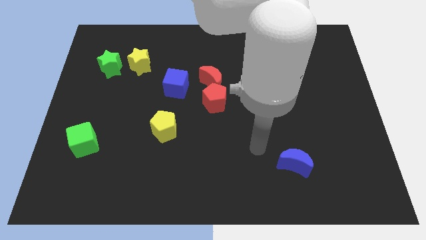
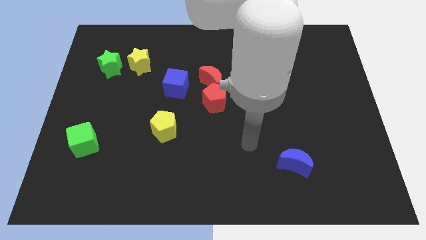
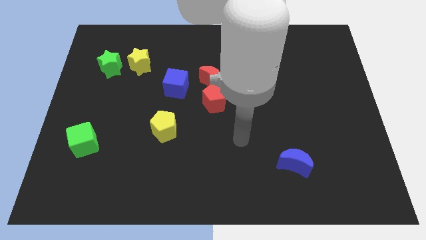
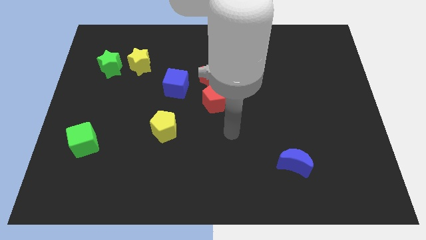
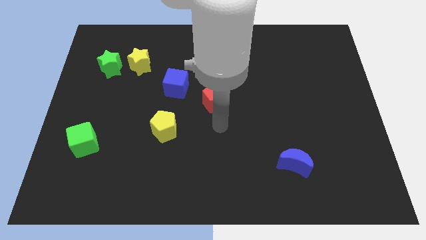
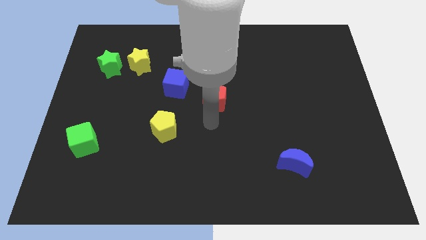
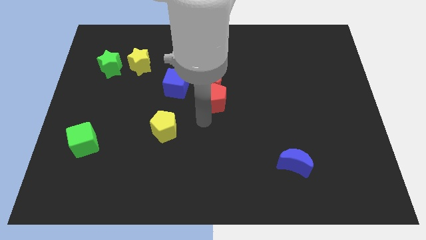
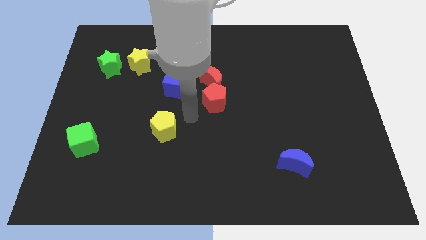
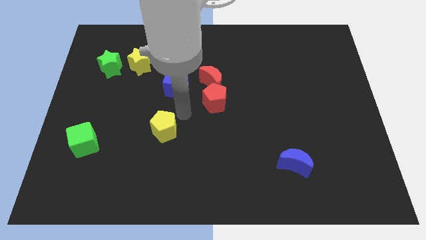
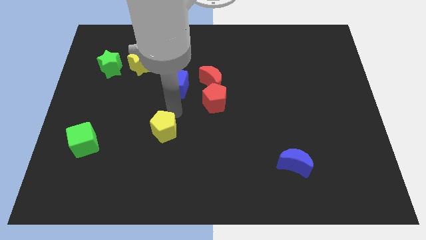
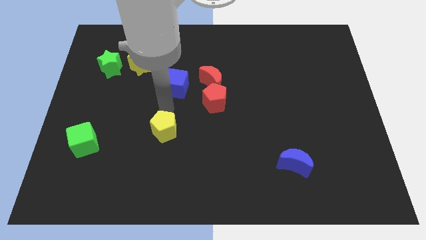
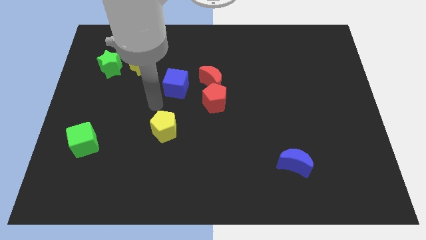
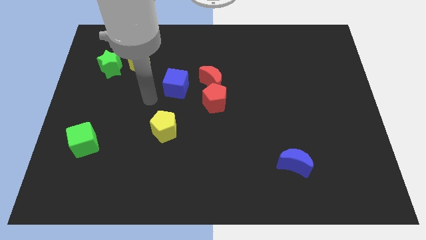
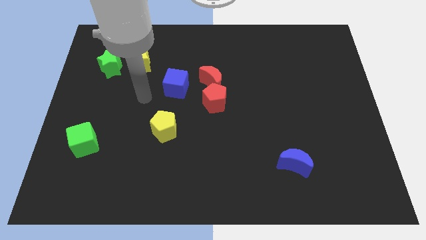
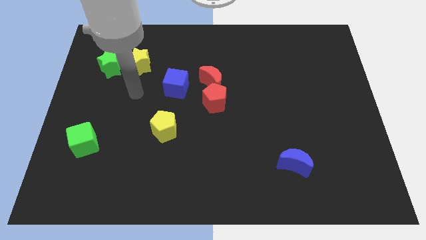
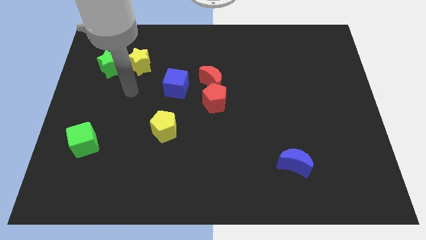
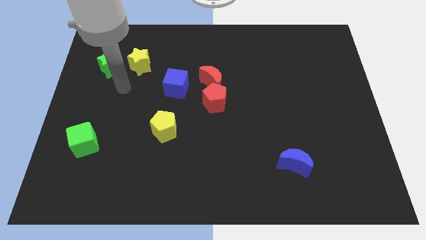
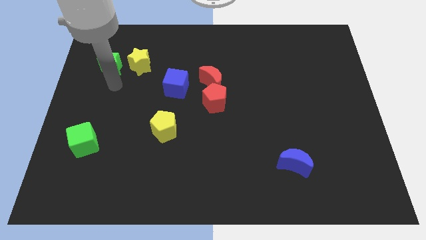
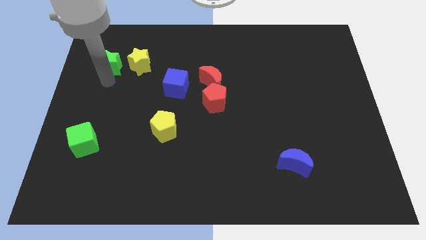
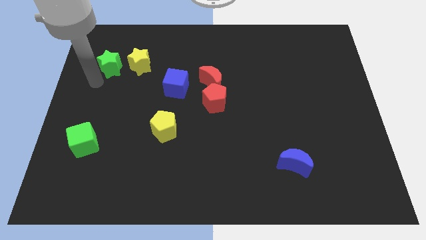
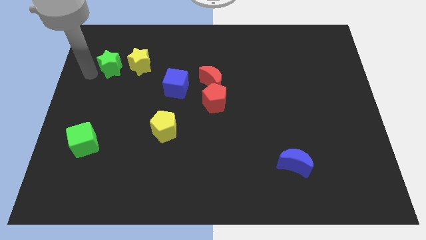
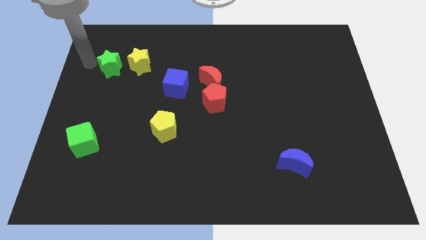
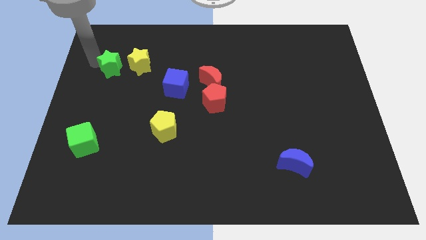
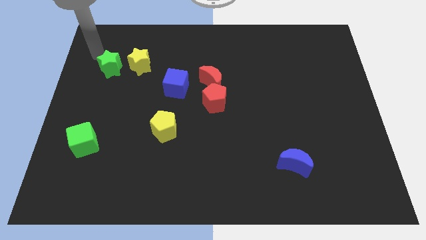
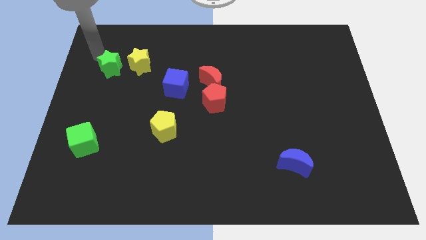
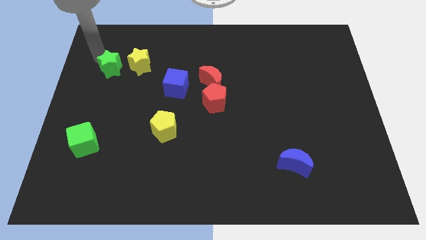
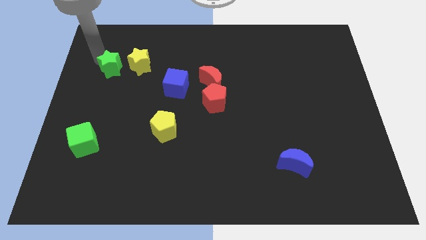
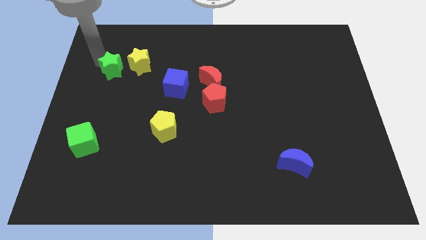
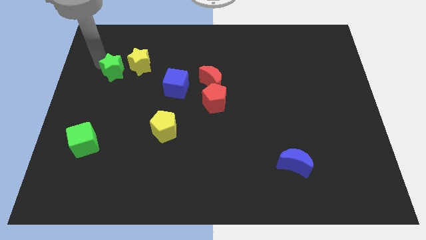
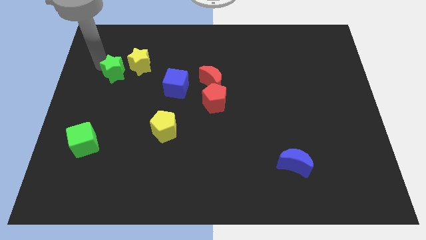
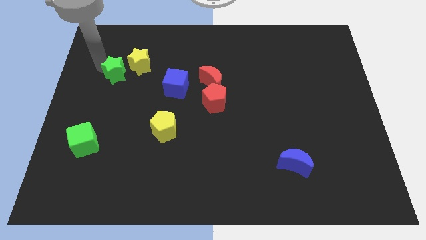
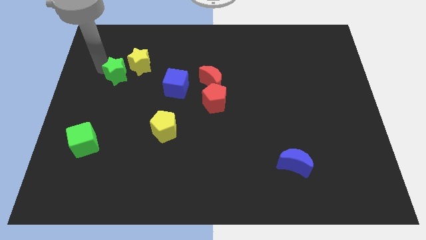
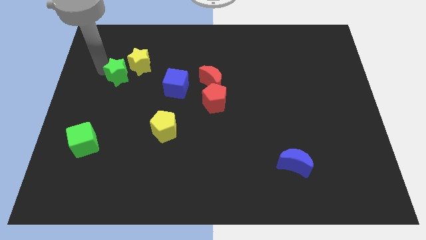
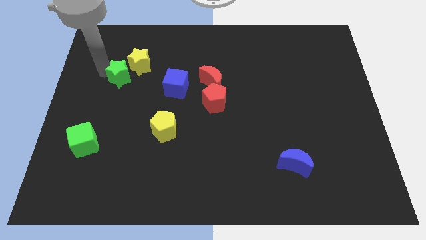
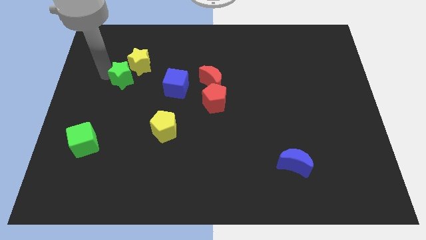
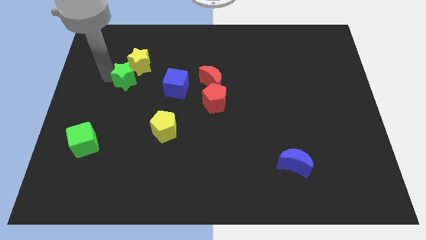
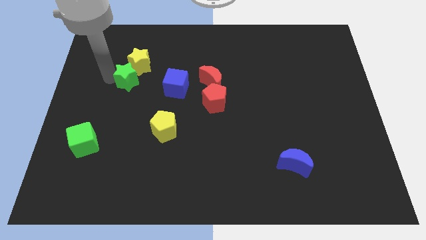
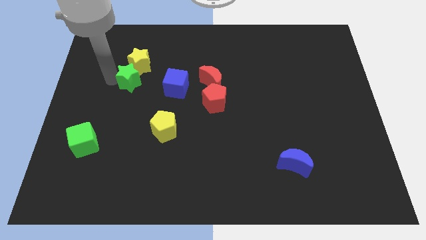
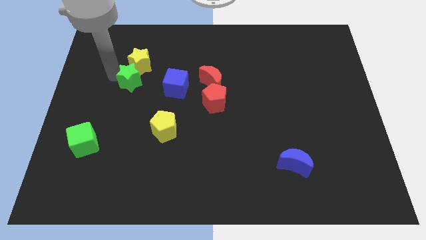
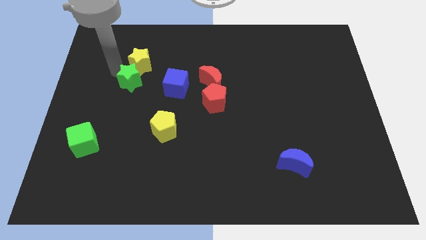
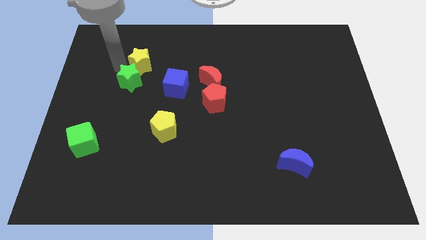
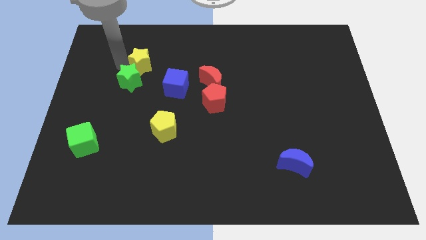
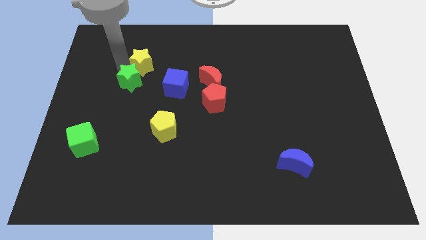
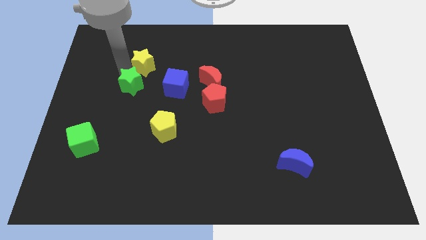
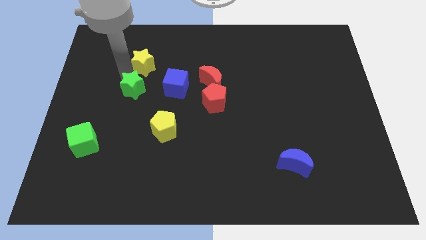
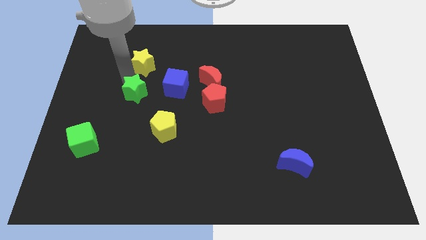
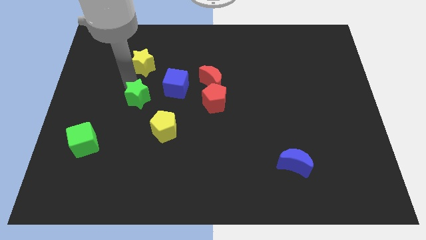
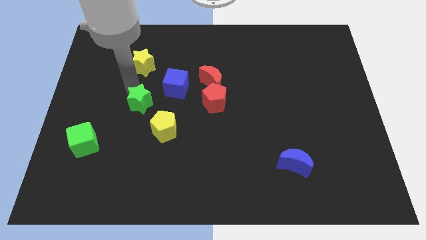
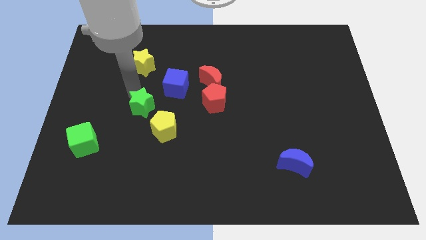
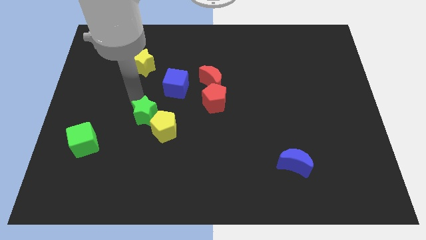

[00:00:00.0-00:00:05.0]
push the green star towards the yellow pentagon

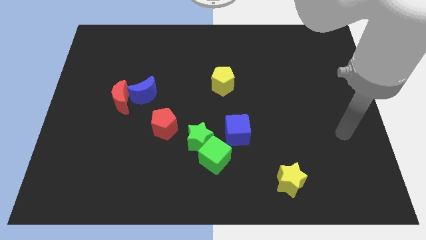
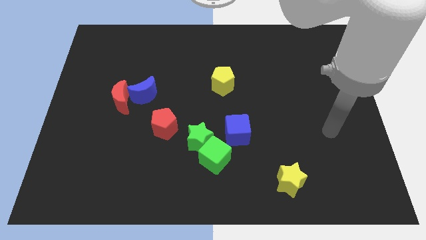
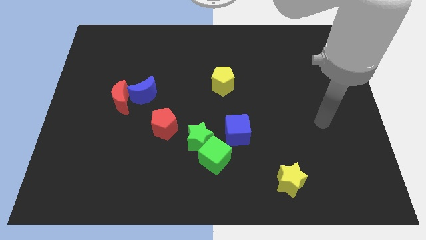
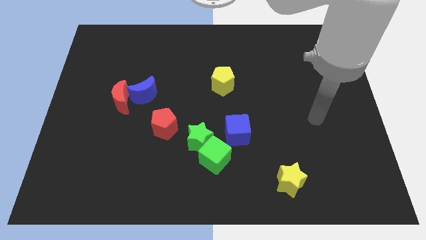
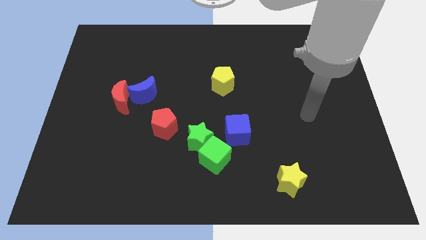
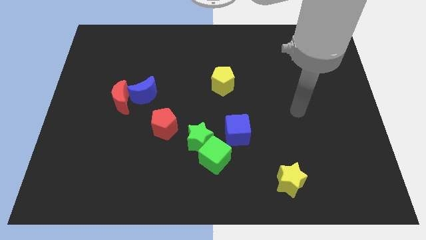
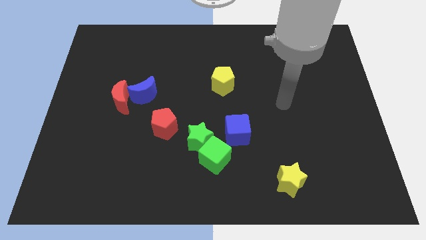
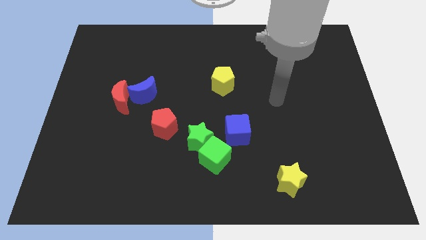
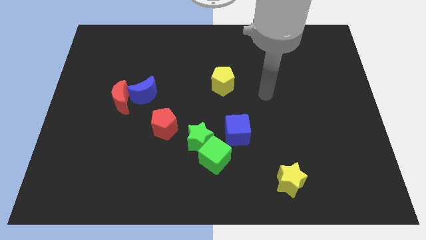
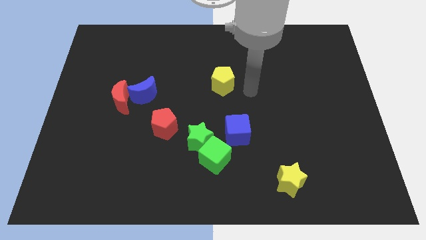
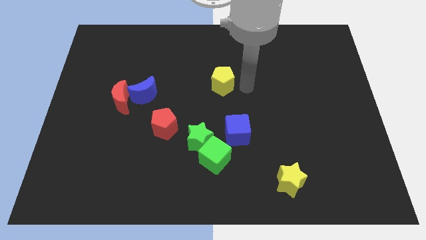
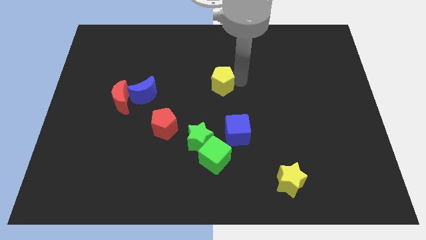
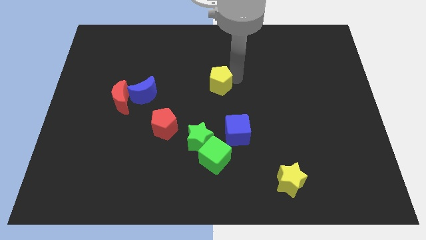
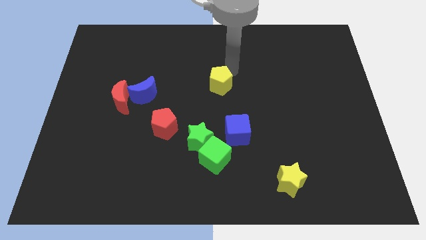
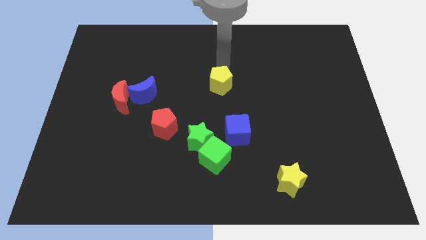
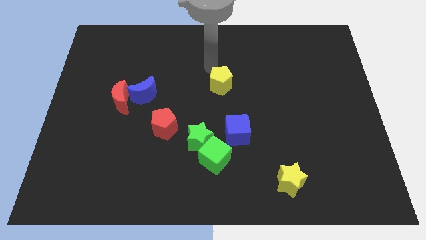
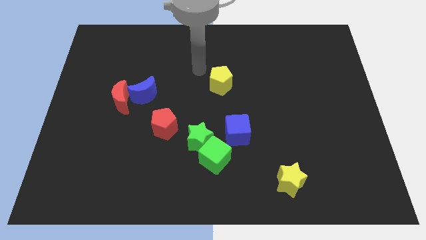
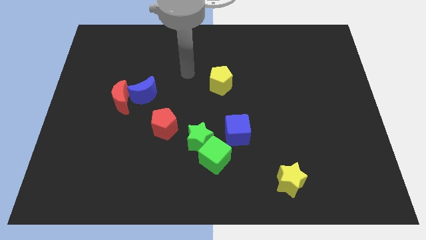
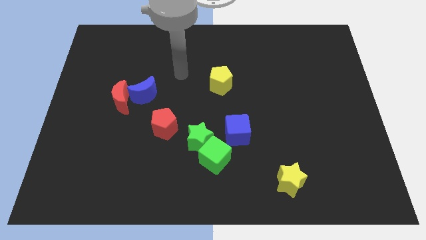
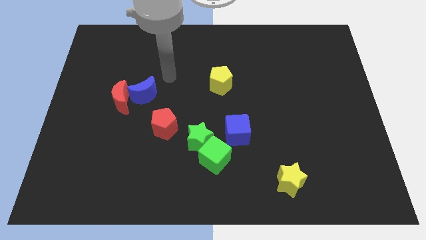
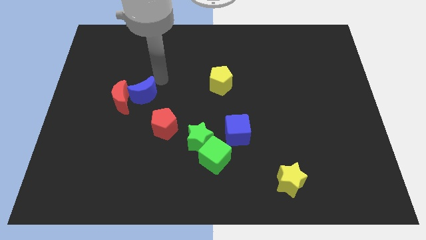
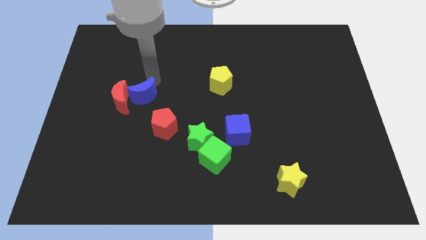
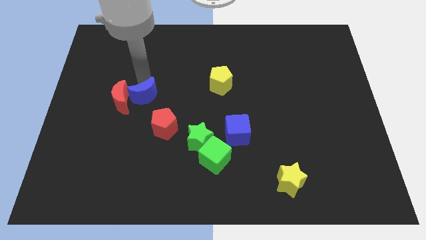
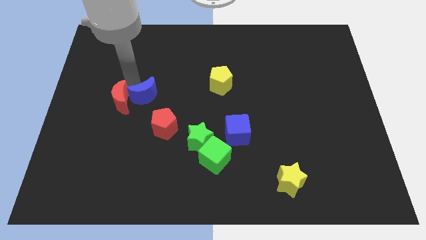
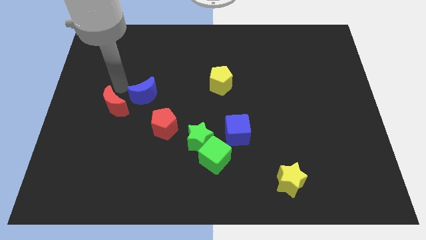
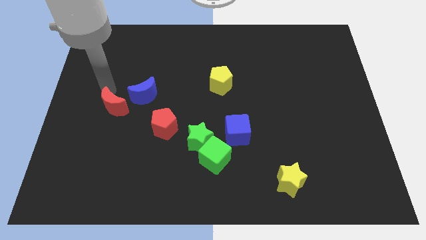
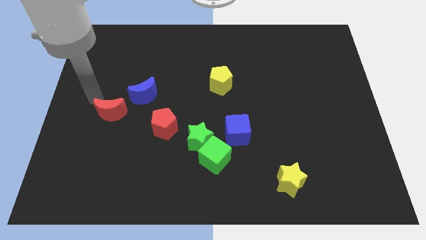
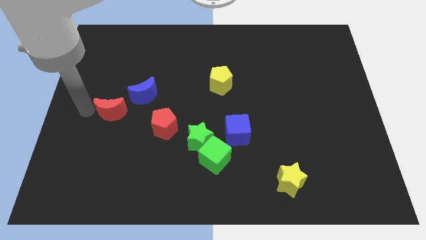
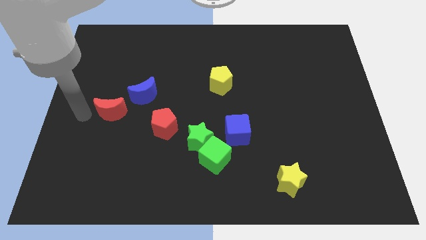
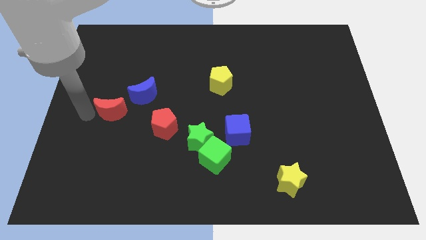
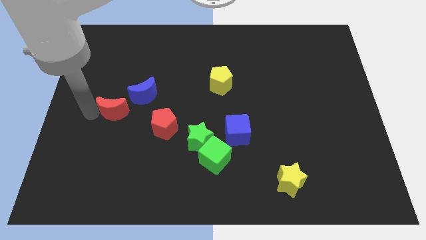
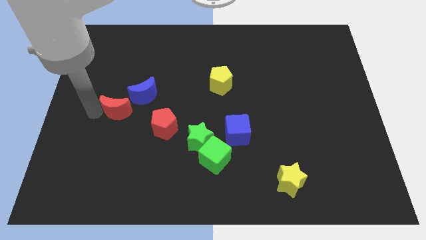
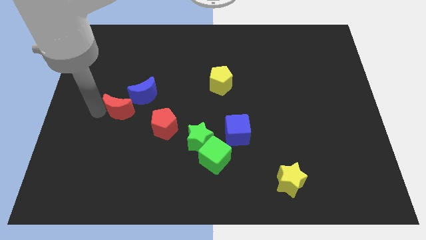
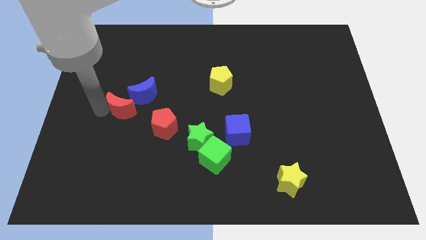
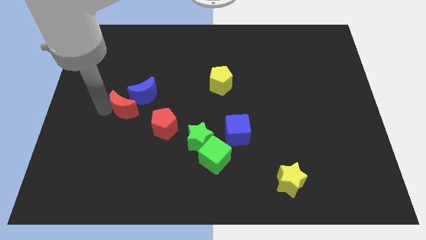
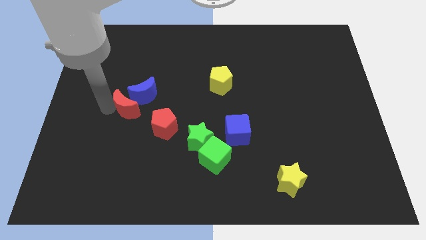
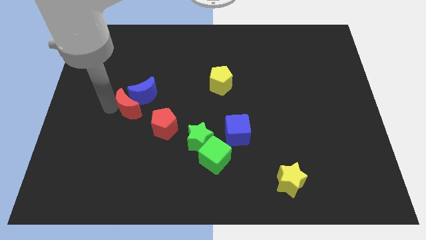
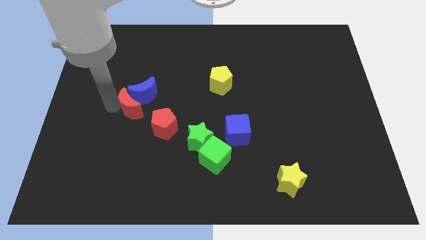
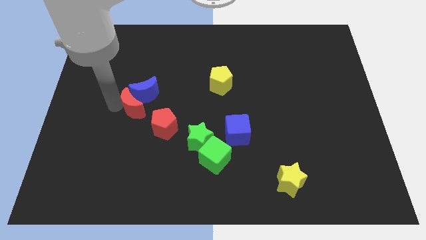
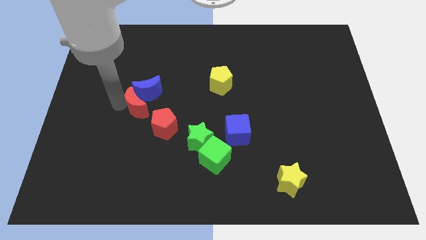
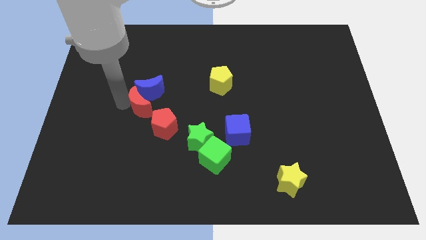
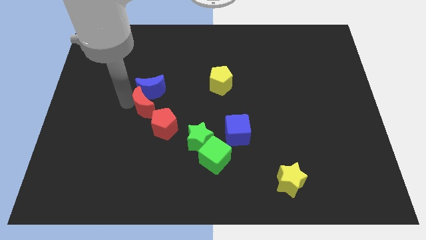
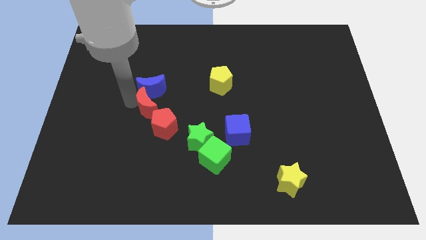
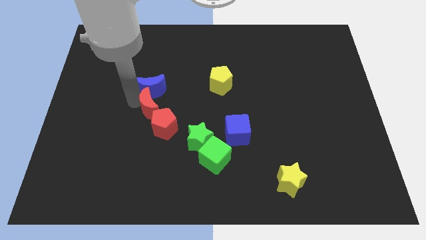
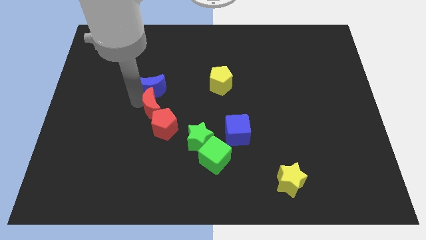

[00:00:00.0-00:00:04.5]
move the red moon towards the red pentagon
